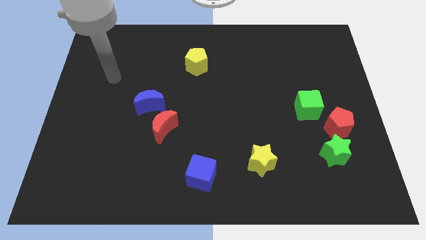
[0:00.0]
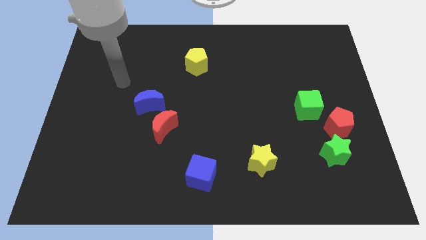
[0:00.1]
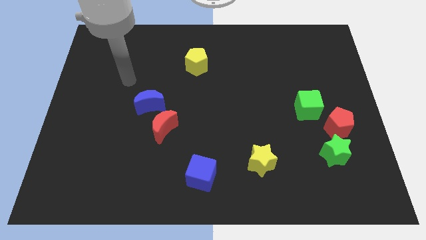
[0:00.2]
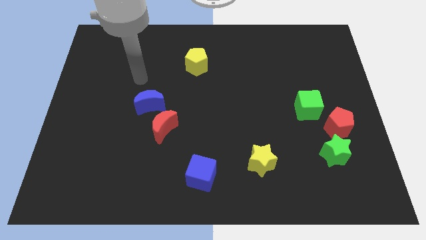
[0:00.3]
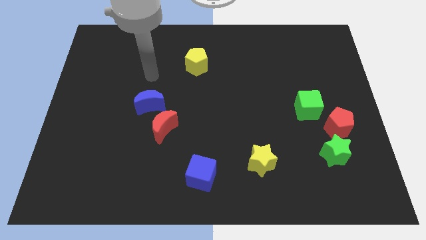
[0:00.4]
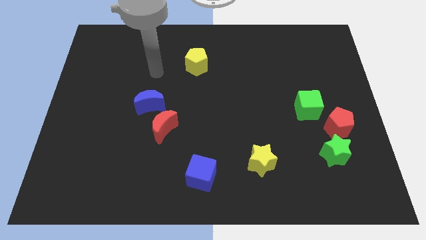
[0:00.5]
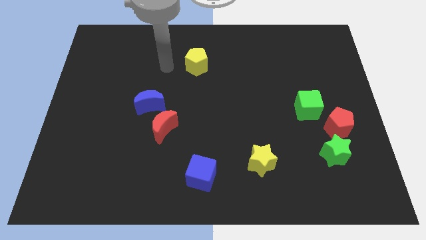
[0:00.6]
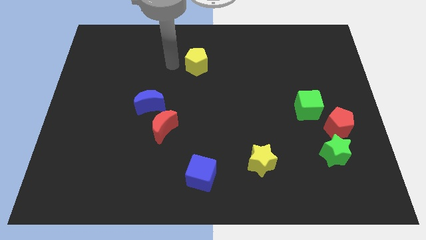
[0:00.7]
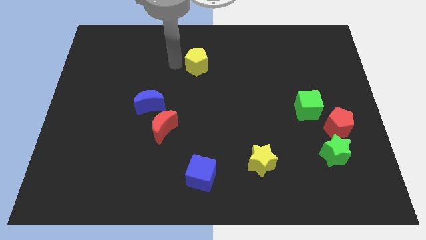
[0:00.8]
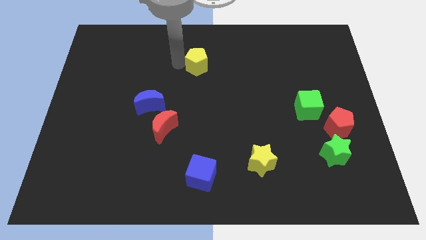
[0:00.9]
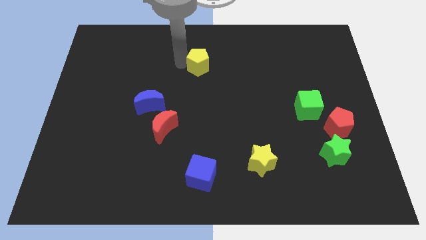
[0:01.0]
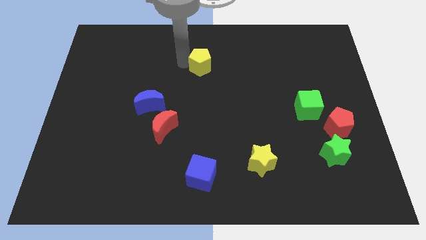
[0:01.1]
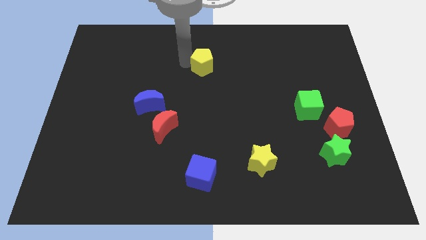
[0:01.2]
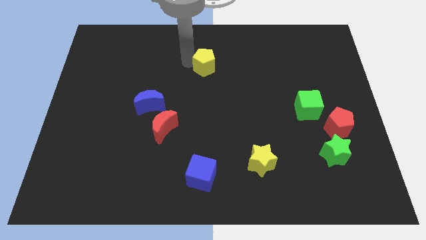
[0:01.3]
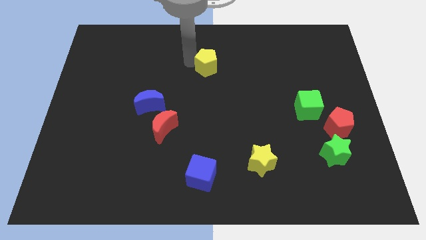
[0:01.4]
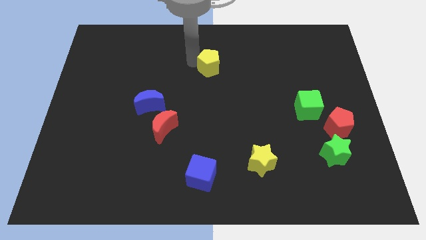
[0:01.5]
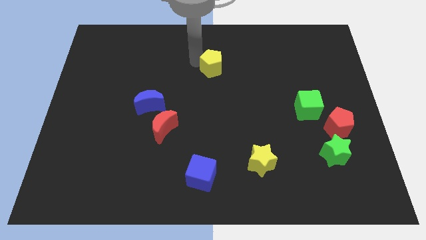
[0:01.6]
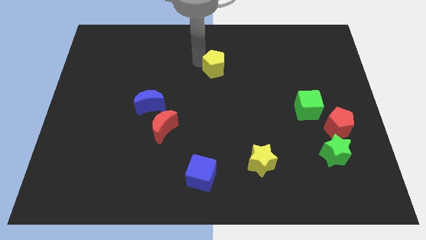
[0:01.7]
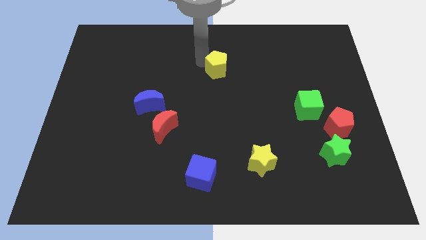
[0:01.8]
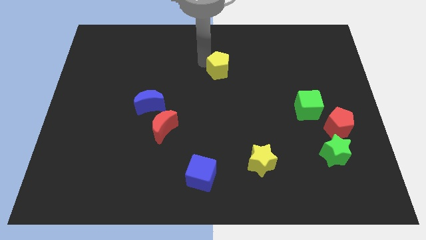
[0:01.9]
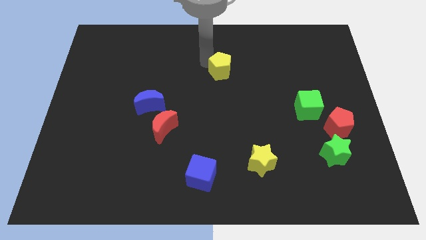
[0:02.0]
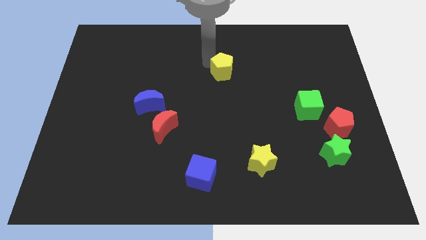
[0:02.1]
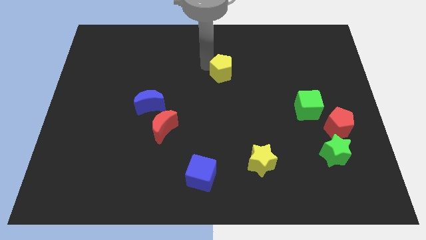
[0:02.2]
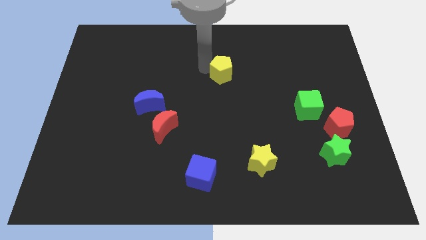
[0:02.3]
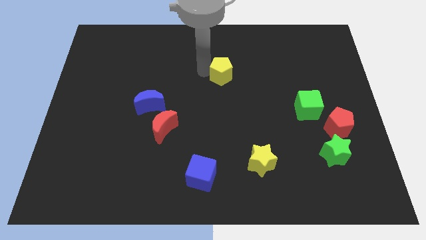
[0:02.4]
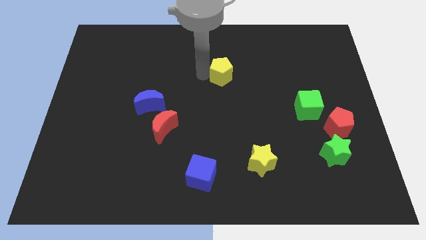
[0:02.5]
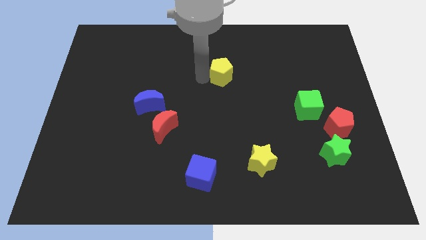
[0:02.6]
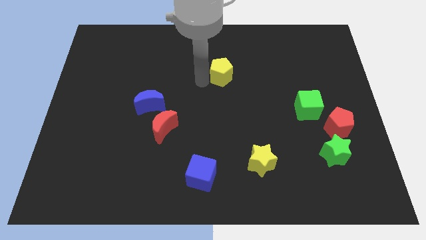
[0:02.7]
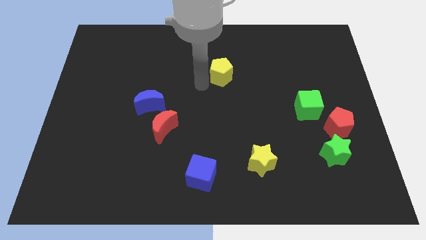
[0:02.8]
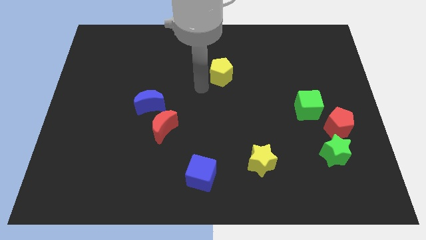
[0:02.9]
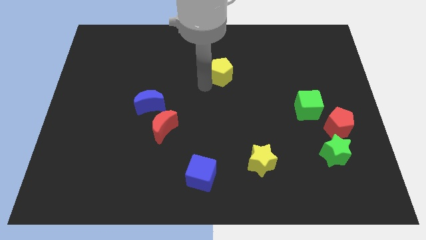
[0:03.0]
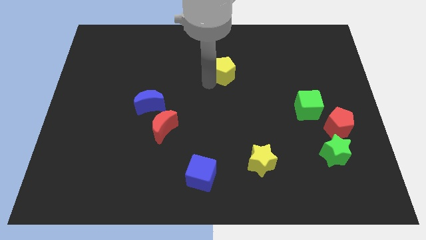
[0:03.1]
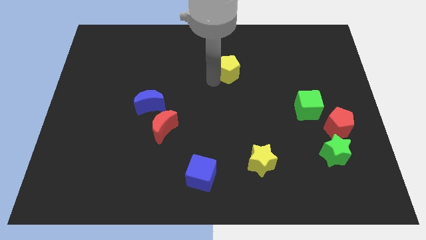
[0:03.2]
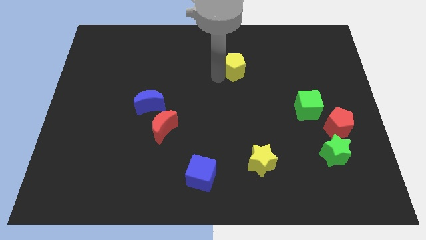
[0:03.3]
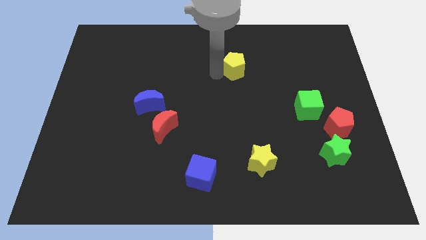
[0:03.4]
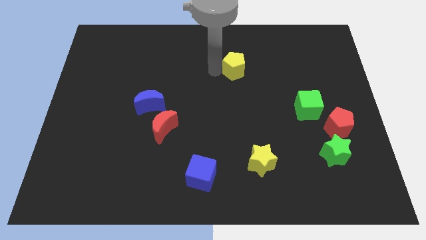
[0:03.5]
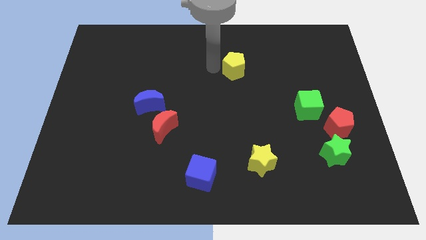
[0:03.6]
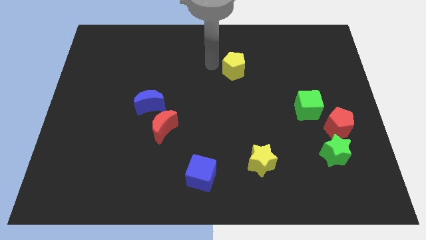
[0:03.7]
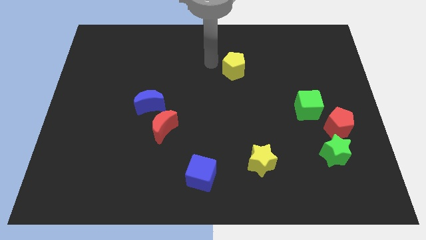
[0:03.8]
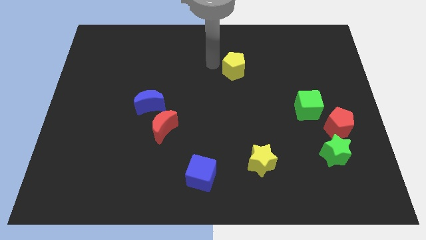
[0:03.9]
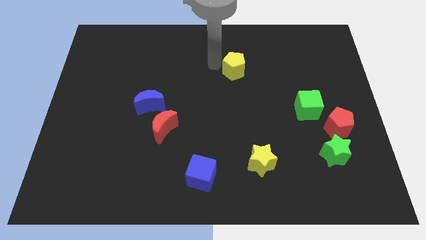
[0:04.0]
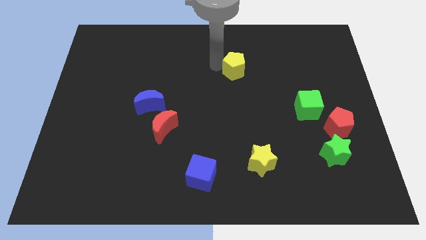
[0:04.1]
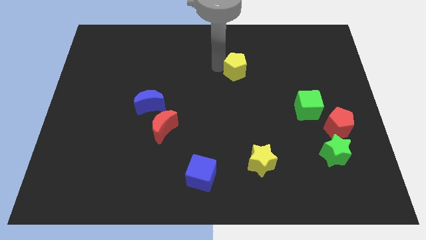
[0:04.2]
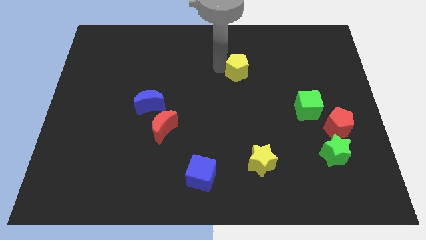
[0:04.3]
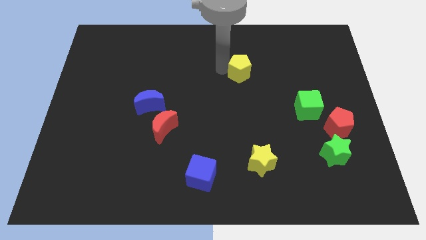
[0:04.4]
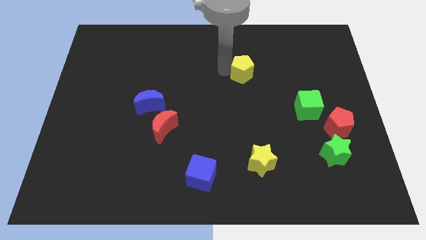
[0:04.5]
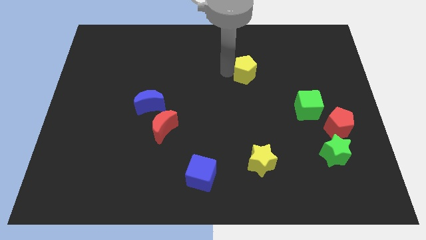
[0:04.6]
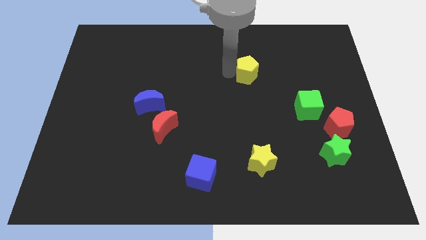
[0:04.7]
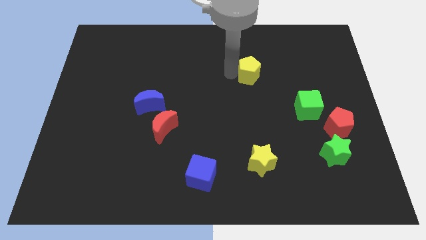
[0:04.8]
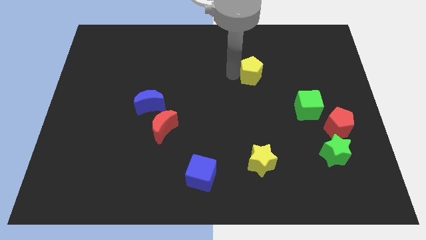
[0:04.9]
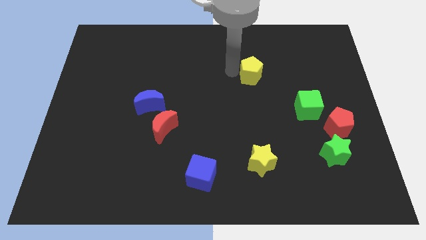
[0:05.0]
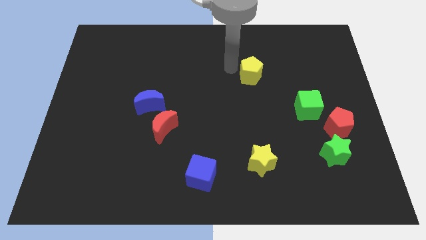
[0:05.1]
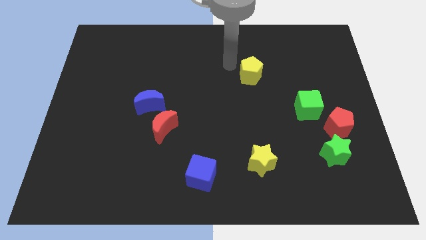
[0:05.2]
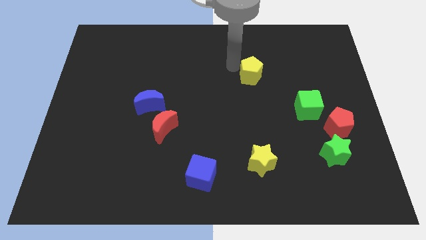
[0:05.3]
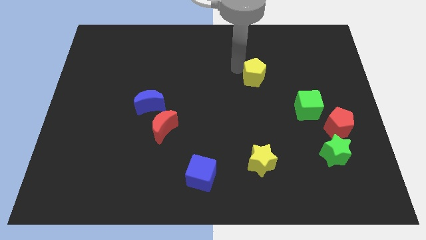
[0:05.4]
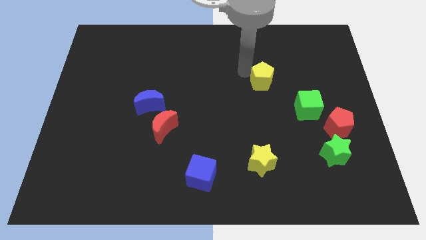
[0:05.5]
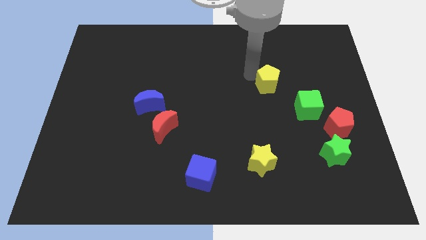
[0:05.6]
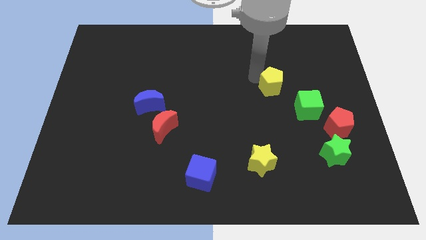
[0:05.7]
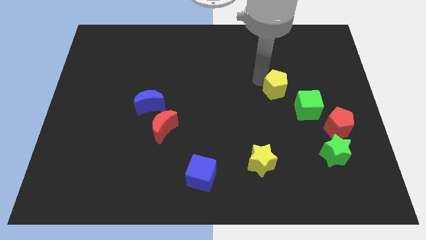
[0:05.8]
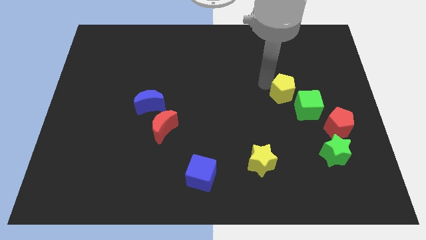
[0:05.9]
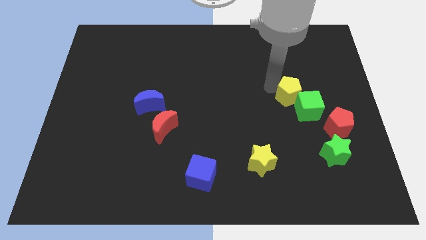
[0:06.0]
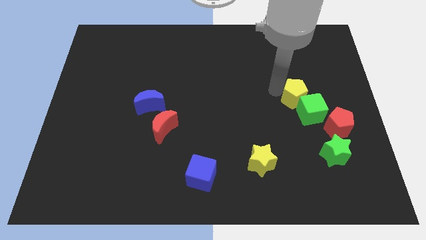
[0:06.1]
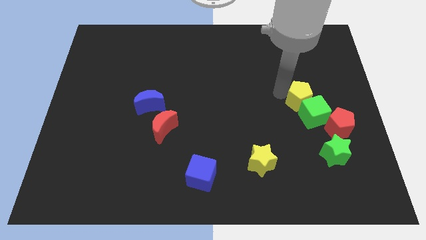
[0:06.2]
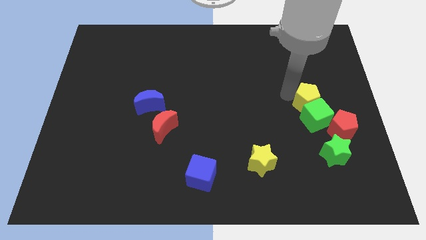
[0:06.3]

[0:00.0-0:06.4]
slide the yellow pentagon to the top of the green star
